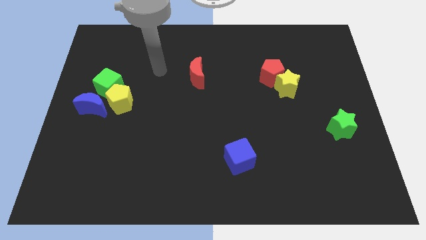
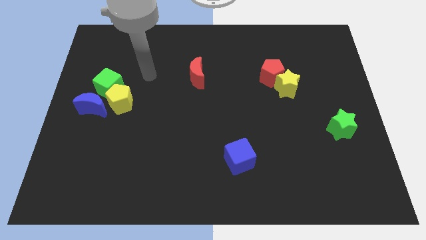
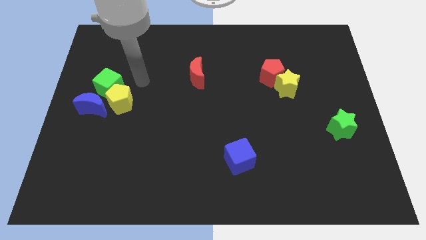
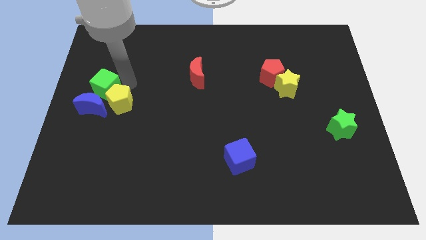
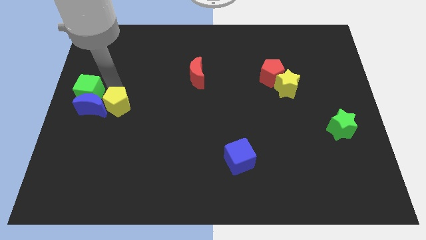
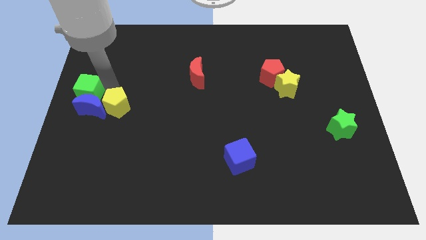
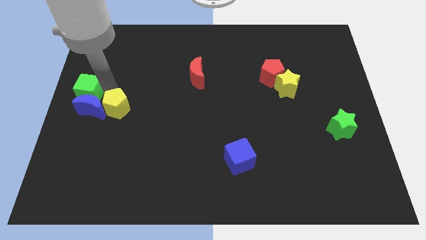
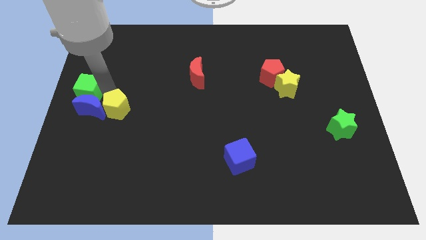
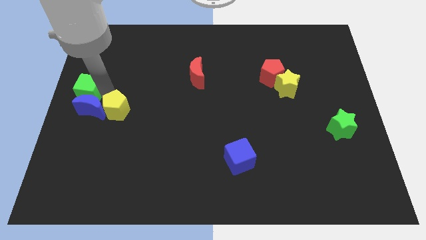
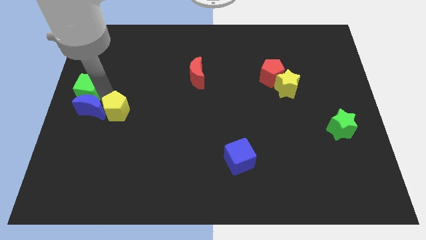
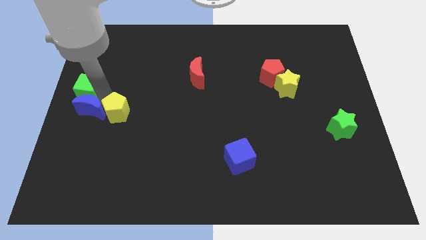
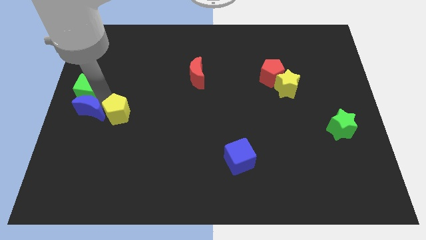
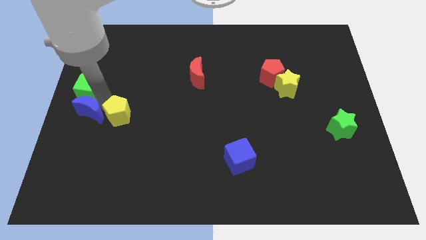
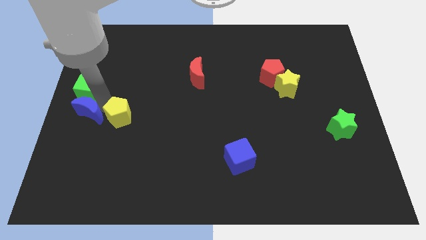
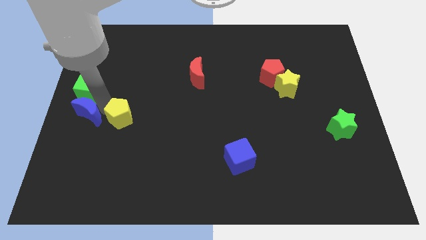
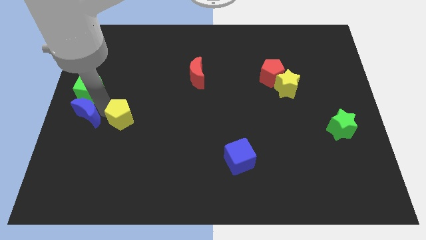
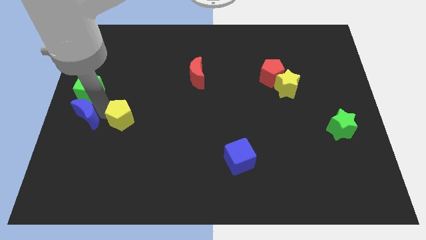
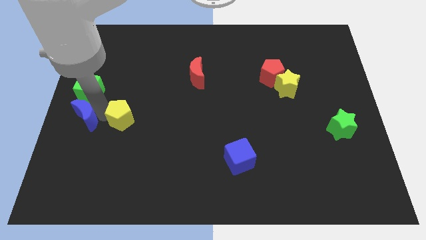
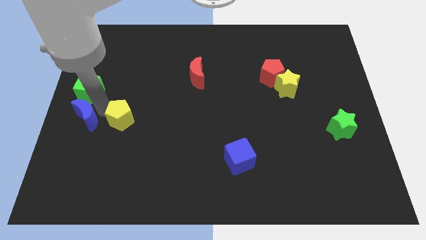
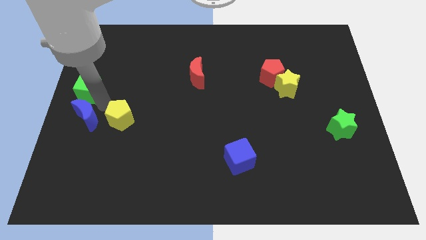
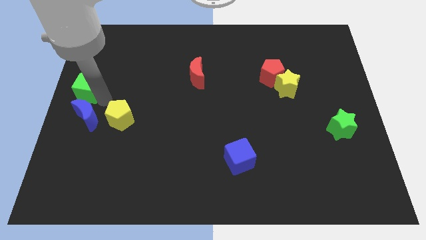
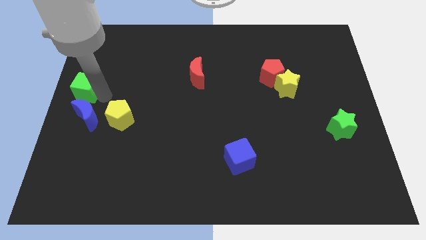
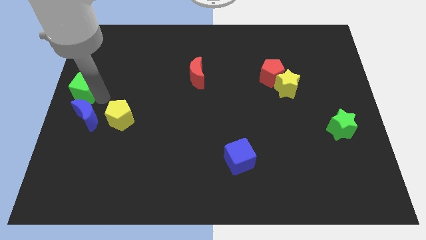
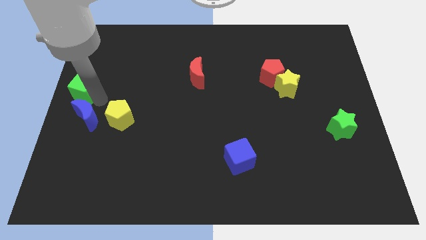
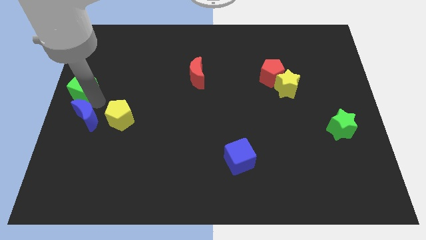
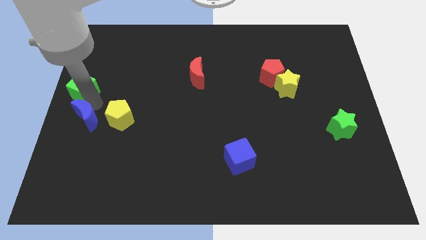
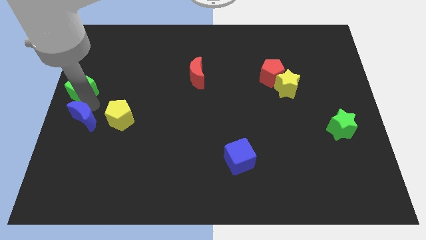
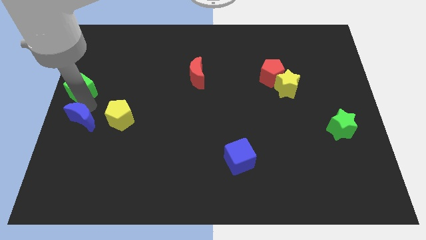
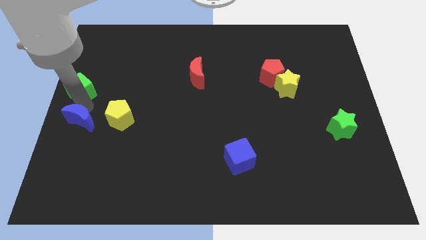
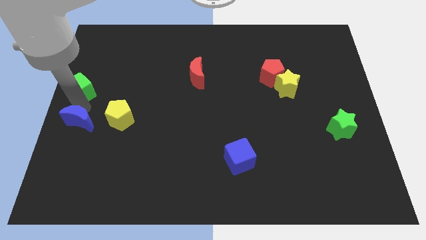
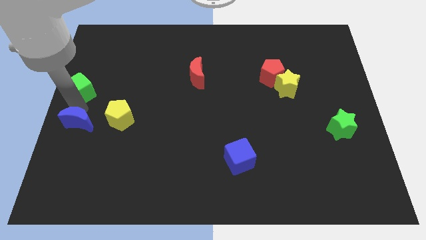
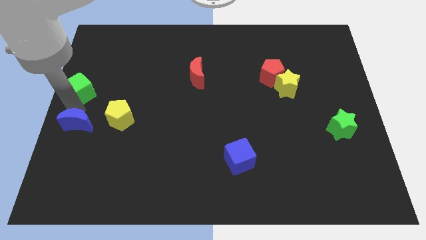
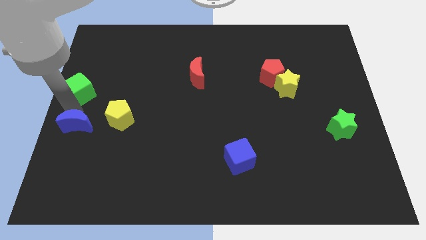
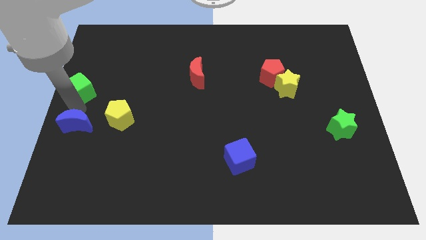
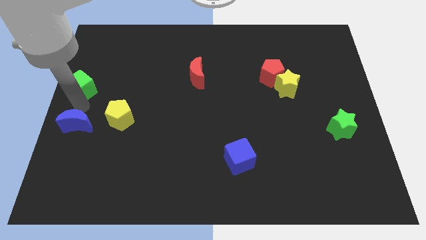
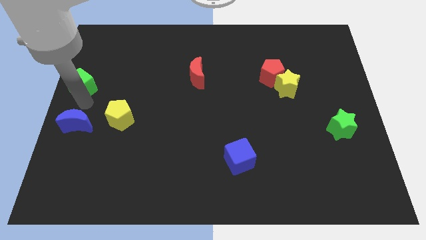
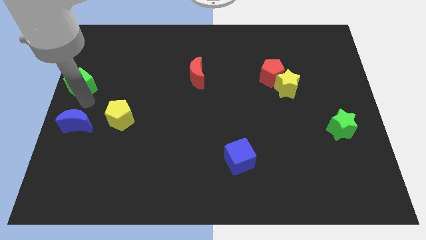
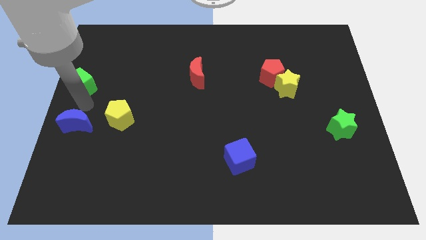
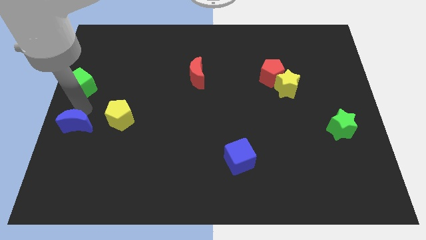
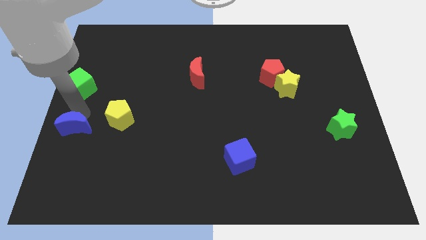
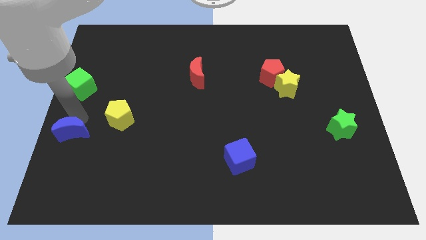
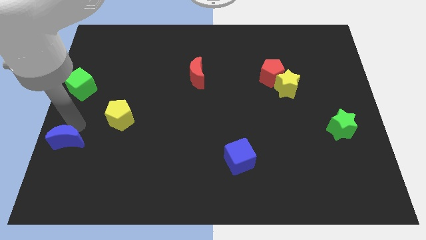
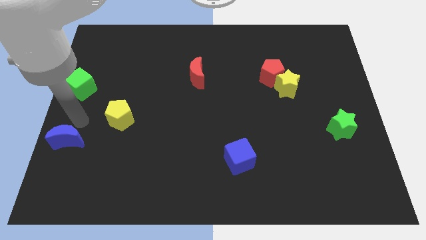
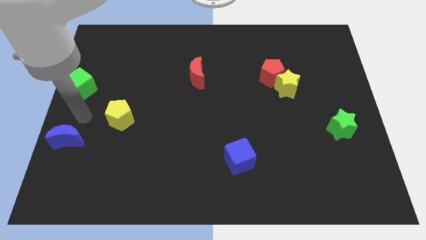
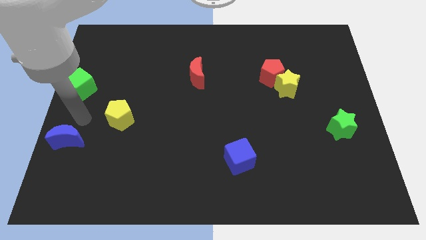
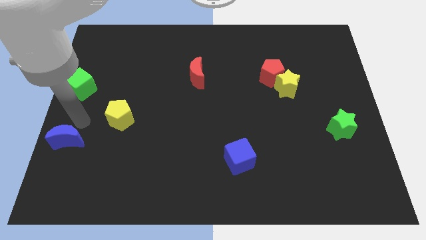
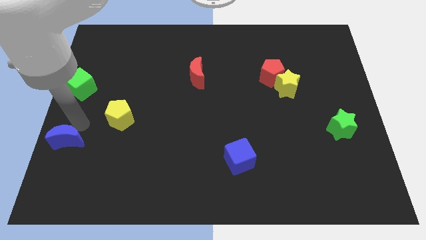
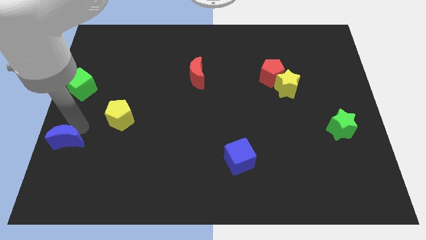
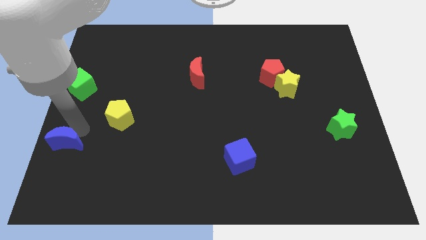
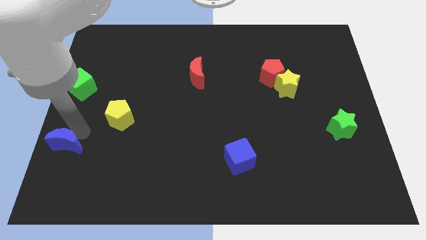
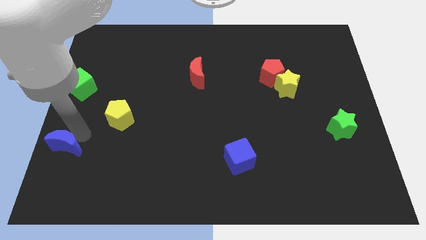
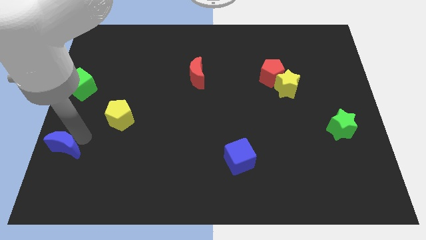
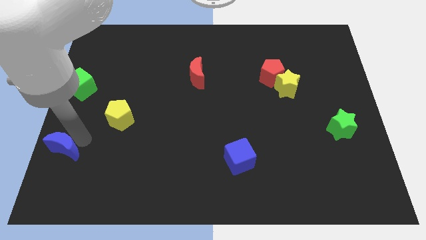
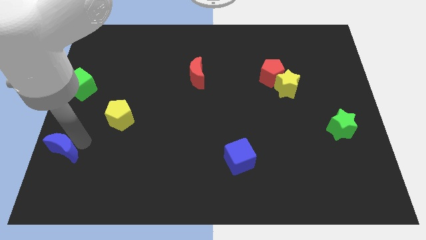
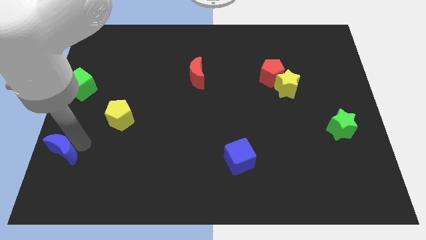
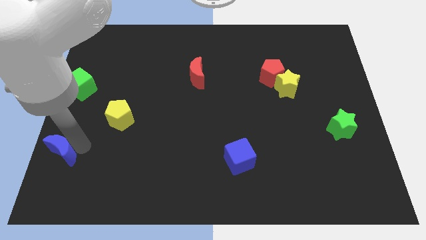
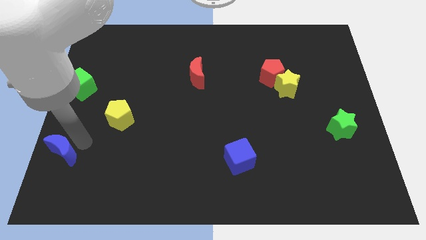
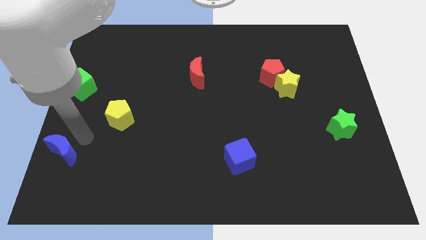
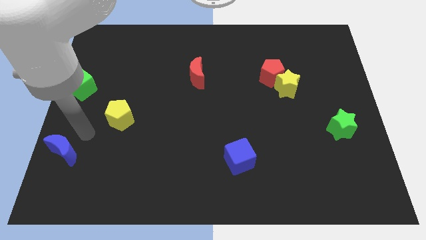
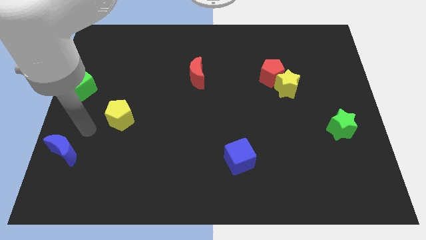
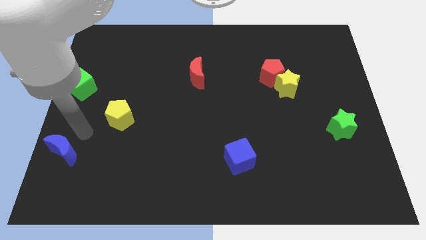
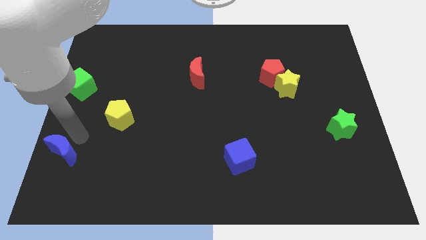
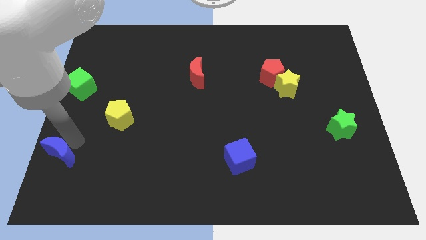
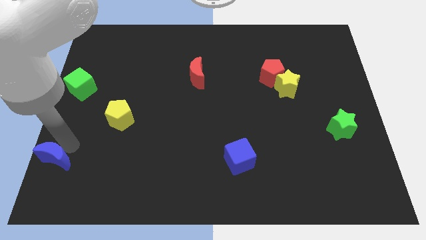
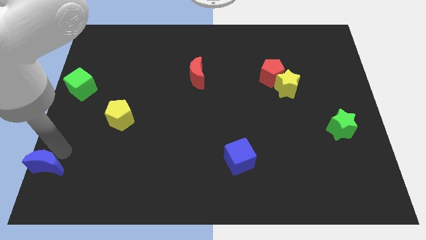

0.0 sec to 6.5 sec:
slide the blue moon to the bottom left
